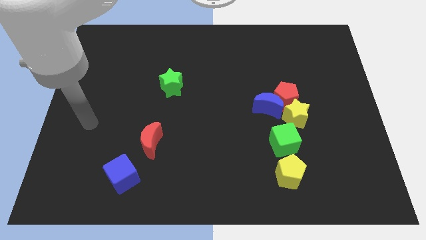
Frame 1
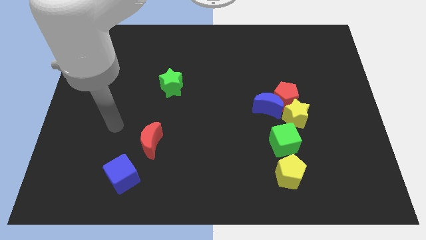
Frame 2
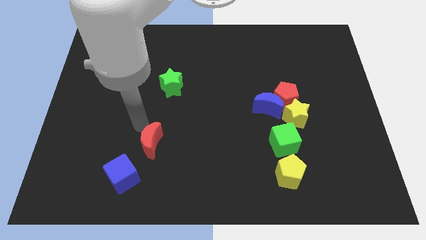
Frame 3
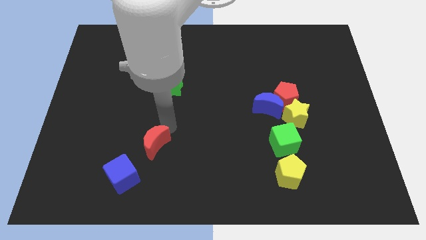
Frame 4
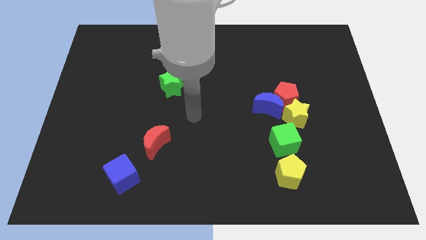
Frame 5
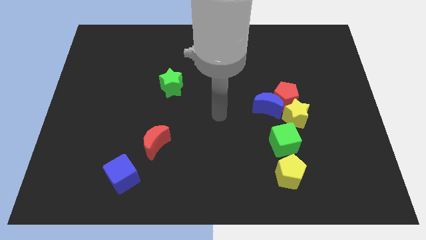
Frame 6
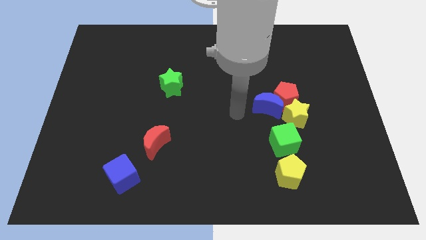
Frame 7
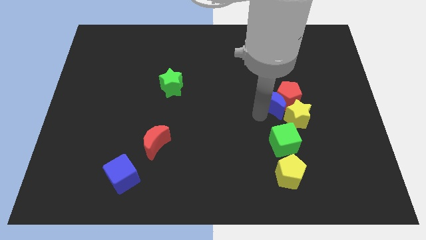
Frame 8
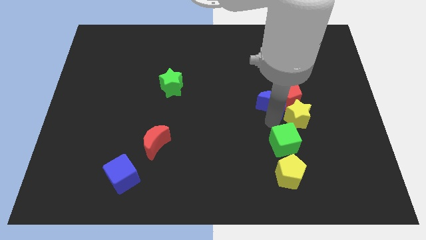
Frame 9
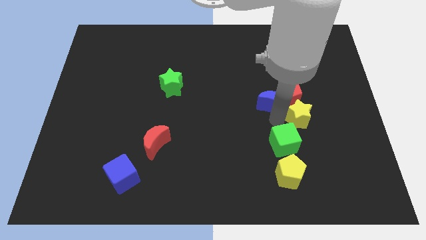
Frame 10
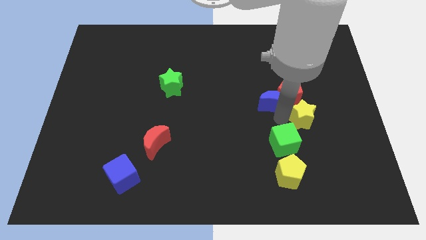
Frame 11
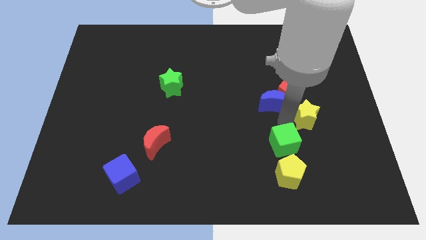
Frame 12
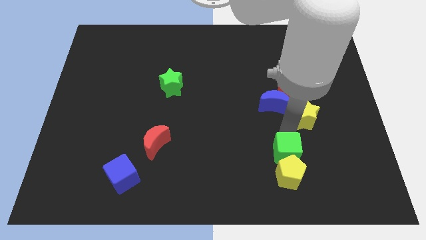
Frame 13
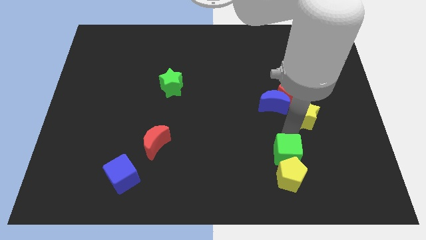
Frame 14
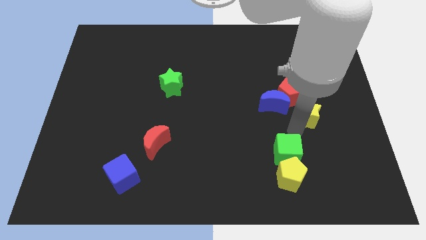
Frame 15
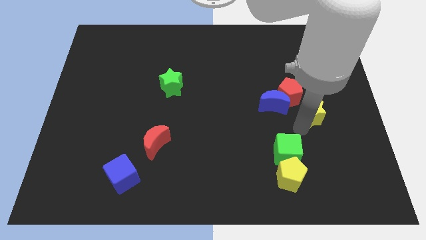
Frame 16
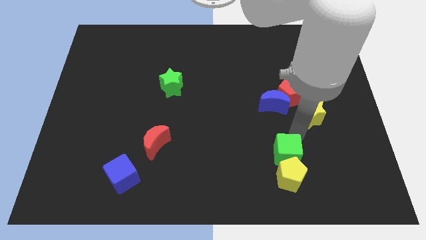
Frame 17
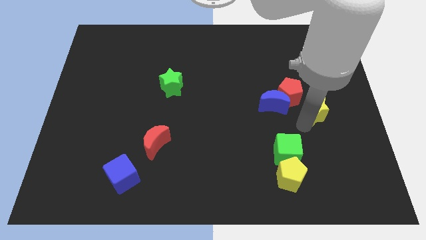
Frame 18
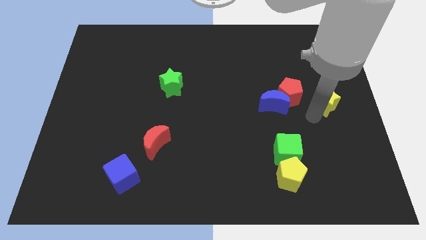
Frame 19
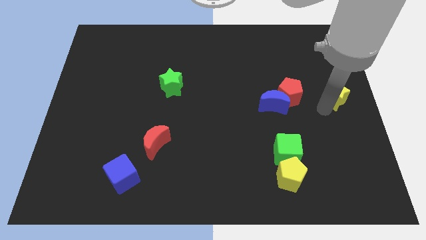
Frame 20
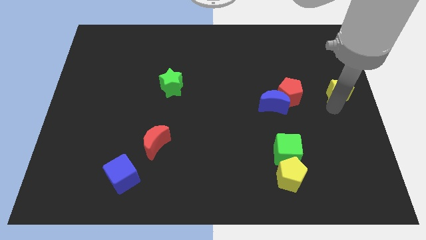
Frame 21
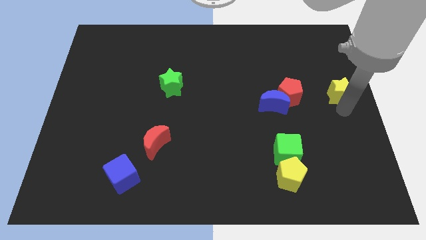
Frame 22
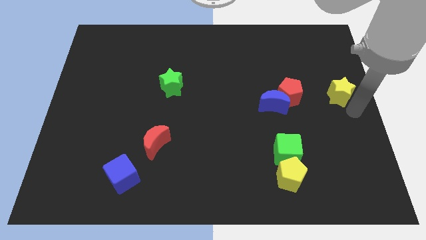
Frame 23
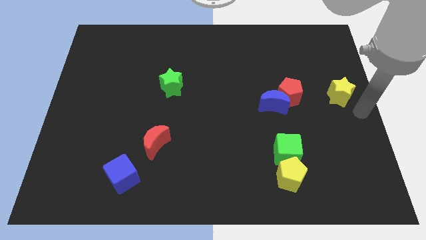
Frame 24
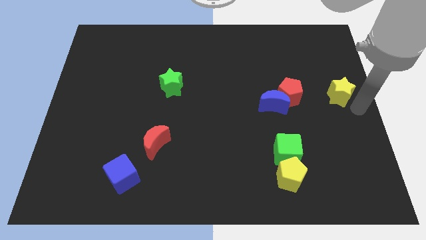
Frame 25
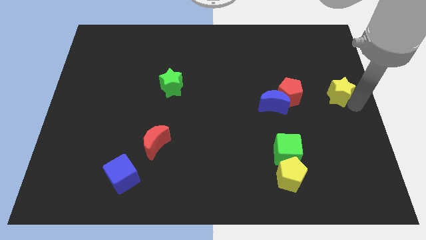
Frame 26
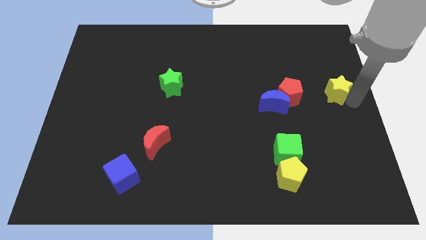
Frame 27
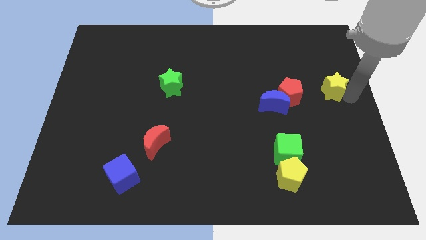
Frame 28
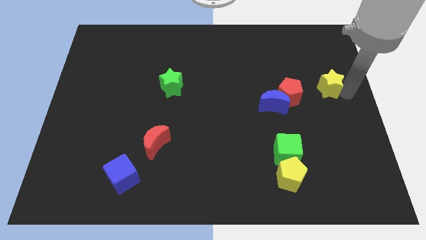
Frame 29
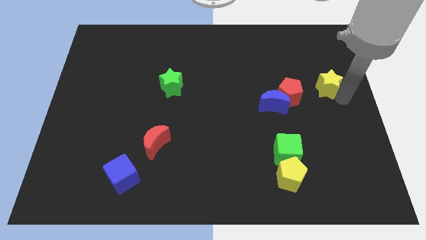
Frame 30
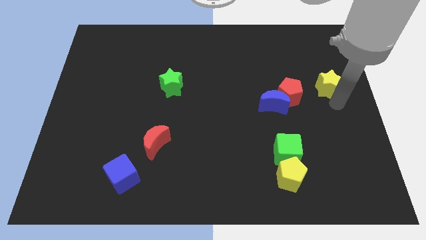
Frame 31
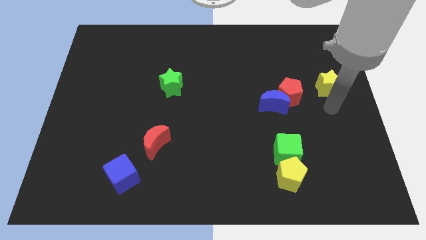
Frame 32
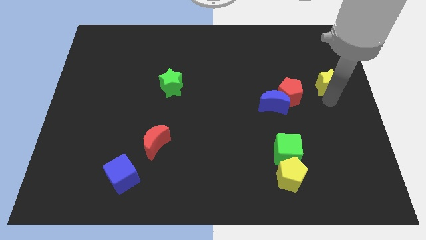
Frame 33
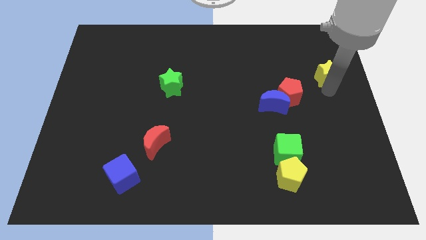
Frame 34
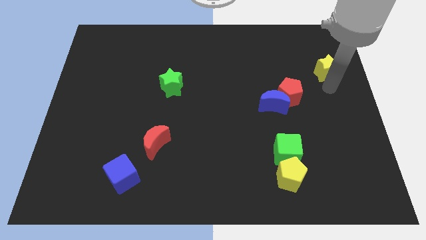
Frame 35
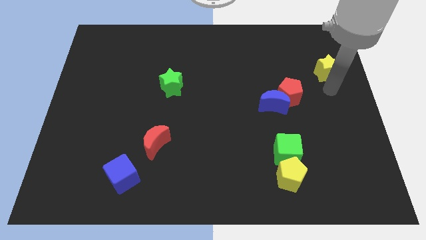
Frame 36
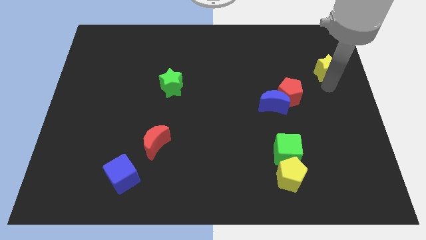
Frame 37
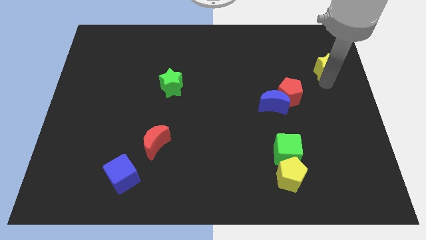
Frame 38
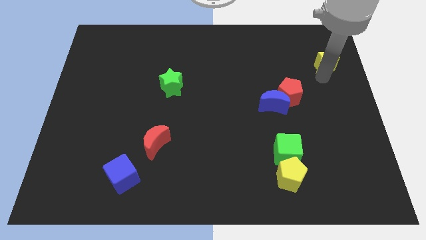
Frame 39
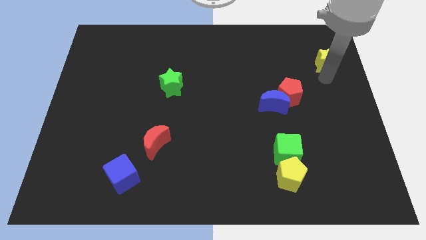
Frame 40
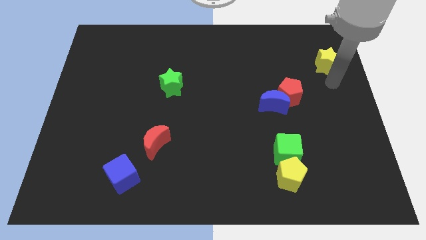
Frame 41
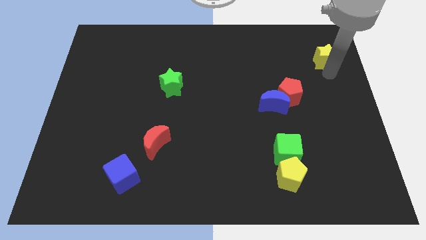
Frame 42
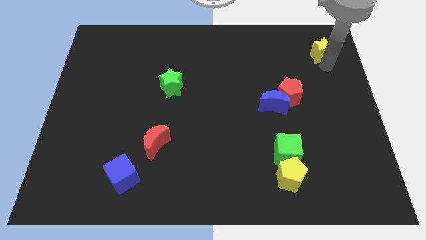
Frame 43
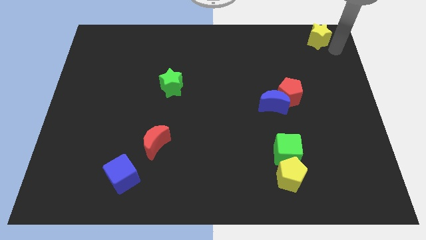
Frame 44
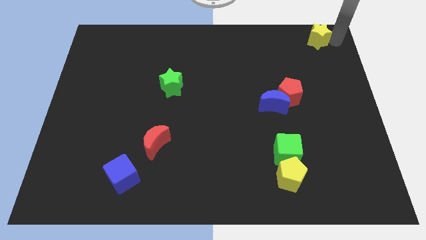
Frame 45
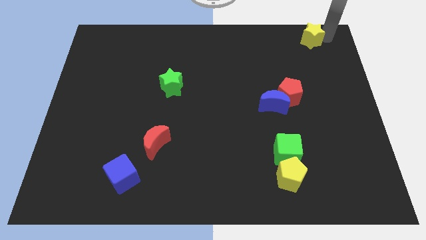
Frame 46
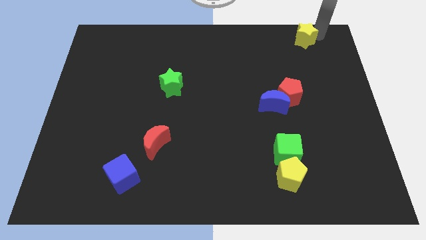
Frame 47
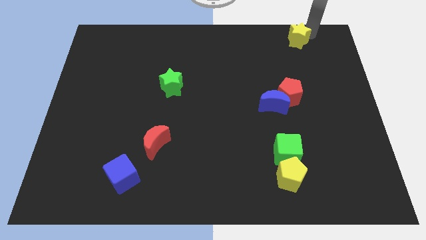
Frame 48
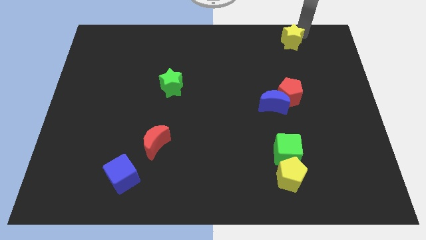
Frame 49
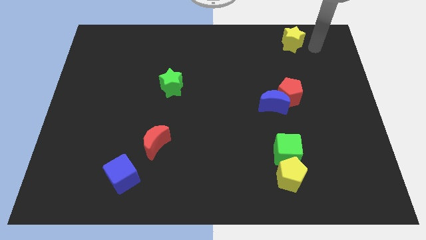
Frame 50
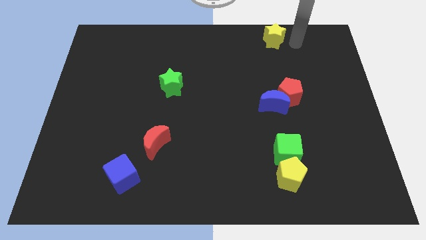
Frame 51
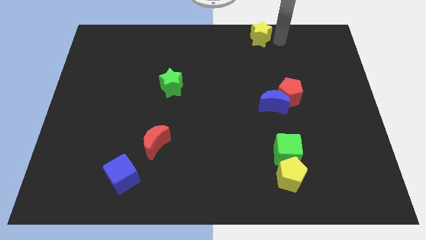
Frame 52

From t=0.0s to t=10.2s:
push the yellow star to the towards your base

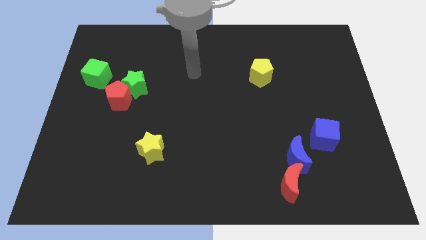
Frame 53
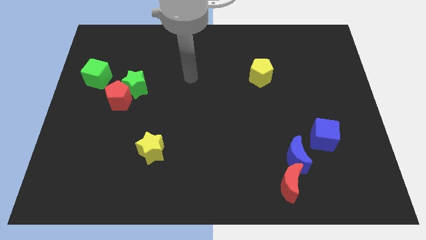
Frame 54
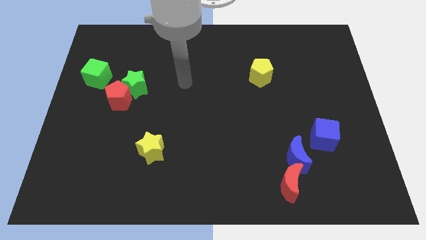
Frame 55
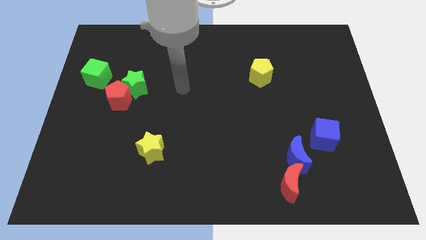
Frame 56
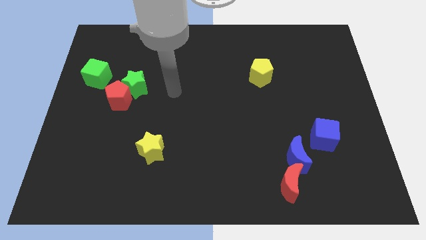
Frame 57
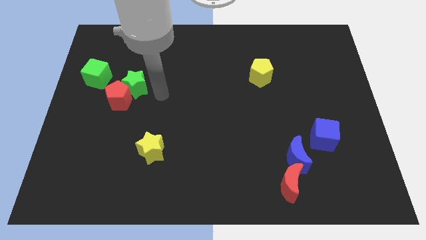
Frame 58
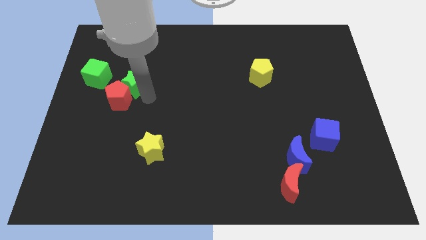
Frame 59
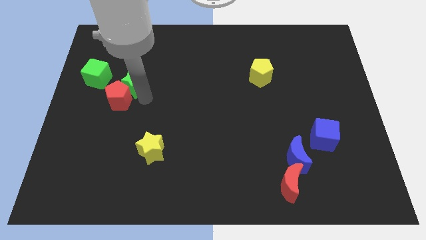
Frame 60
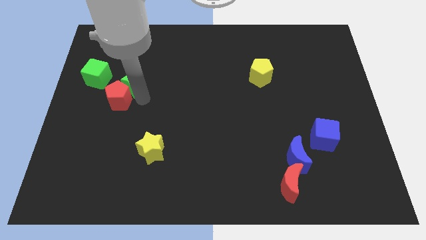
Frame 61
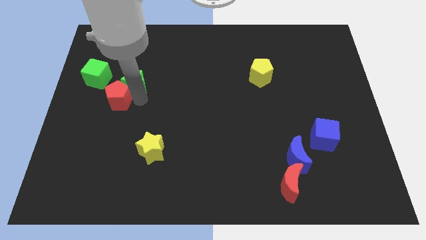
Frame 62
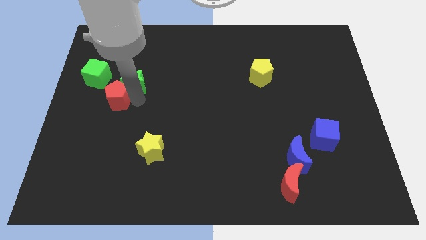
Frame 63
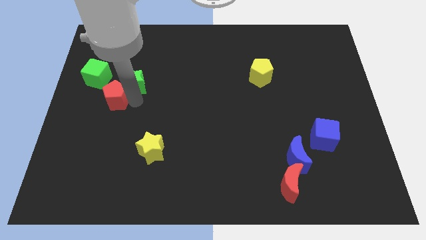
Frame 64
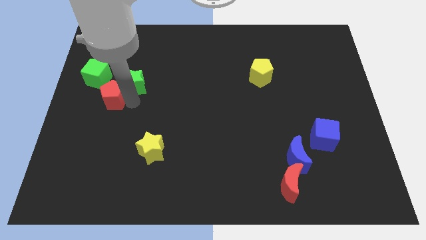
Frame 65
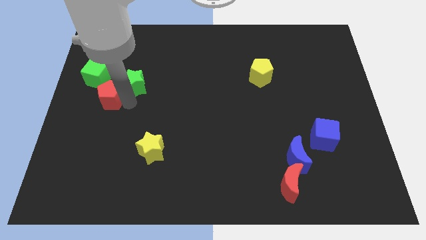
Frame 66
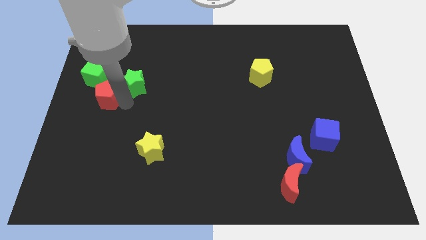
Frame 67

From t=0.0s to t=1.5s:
put the red pentagon to the center left
